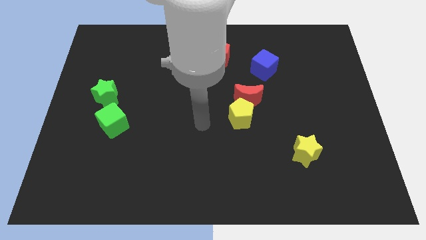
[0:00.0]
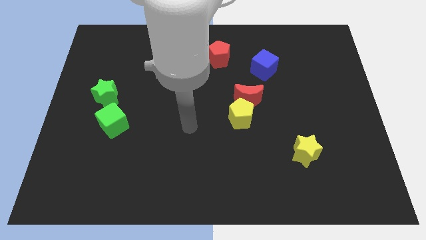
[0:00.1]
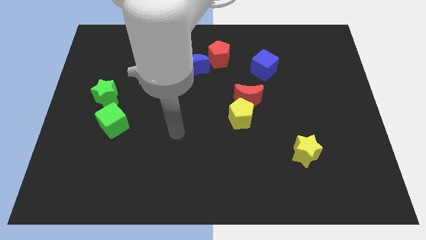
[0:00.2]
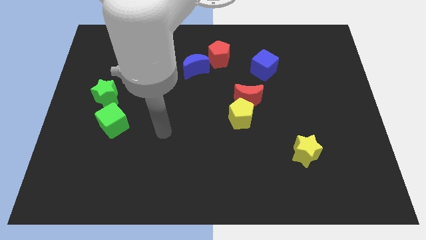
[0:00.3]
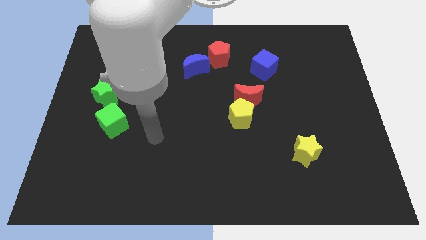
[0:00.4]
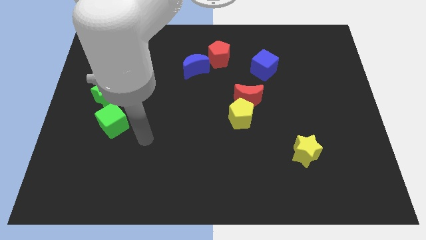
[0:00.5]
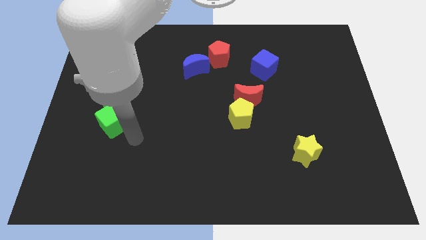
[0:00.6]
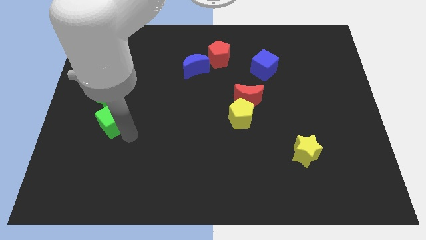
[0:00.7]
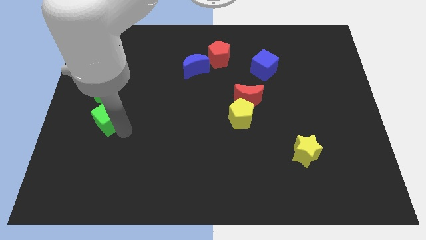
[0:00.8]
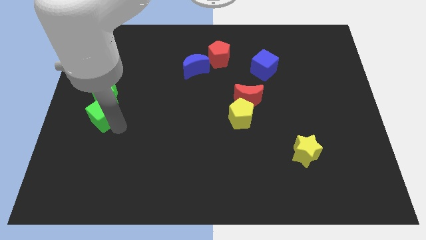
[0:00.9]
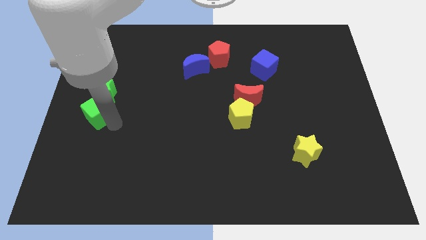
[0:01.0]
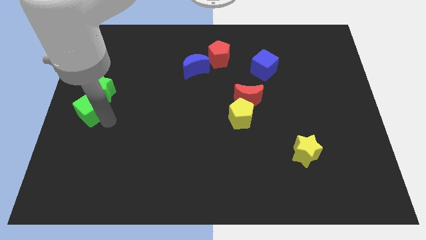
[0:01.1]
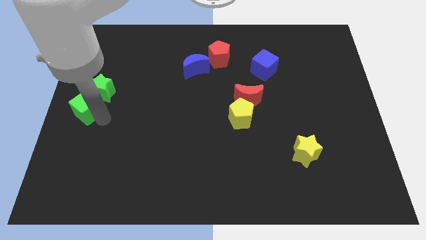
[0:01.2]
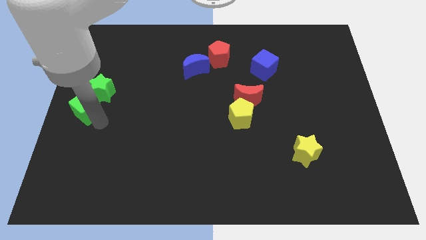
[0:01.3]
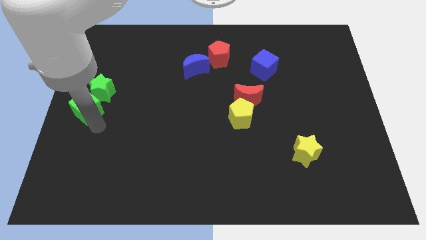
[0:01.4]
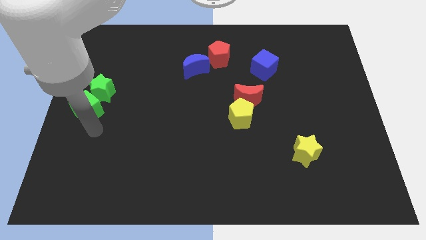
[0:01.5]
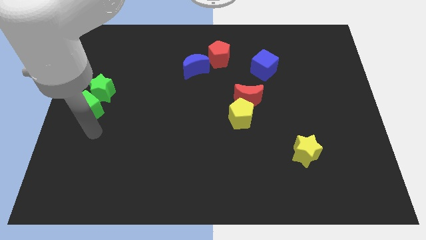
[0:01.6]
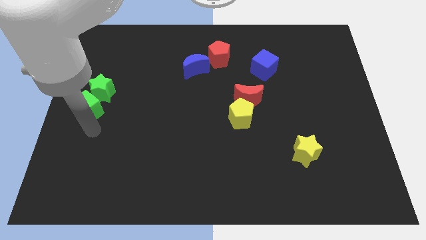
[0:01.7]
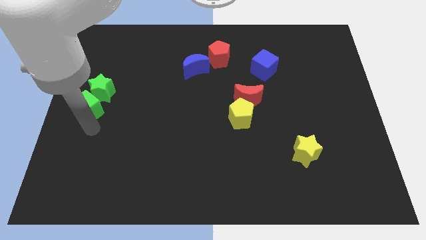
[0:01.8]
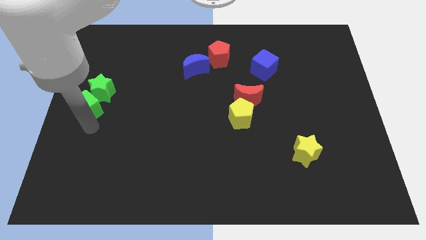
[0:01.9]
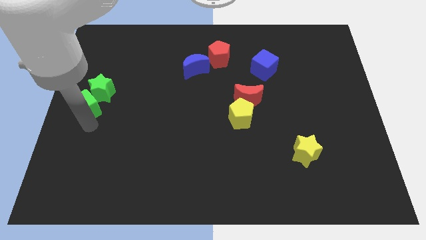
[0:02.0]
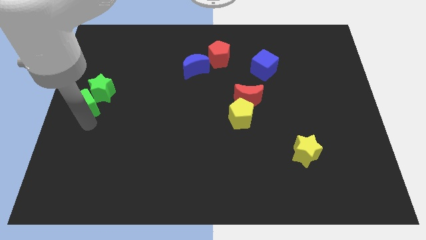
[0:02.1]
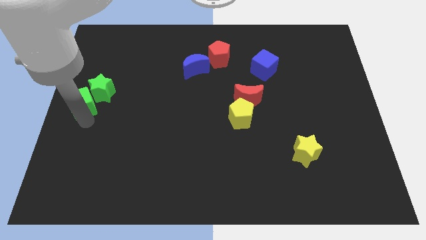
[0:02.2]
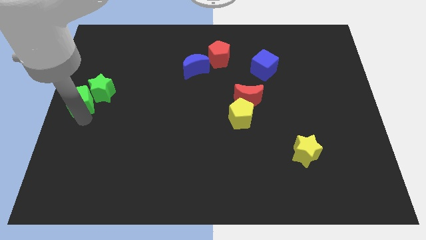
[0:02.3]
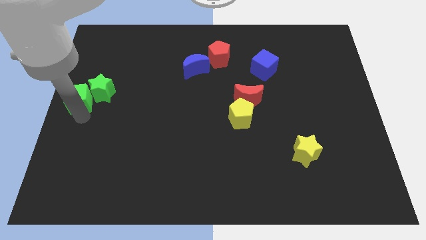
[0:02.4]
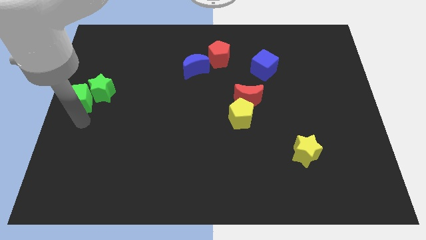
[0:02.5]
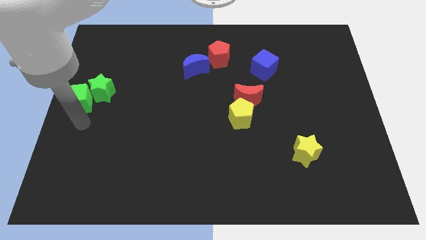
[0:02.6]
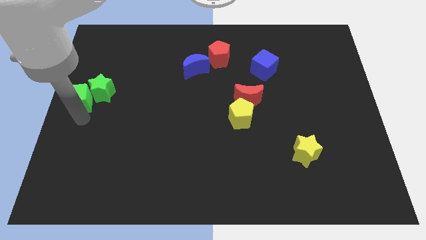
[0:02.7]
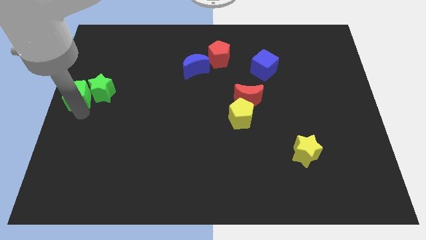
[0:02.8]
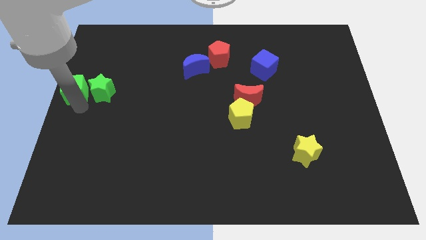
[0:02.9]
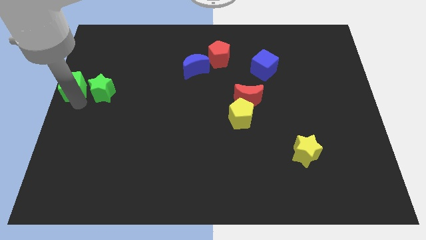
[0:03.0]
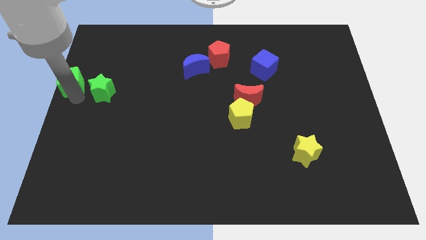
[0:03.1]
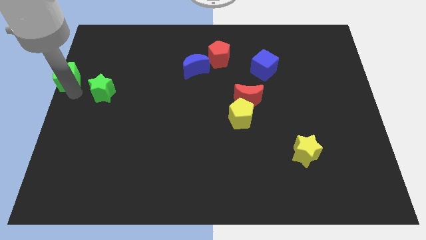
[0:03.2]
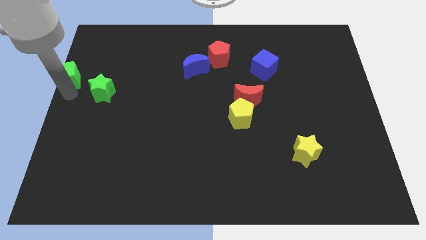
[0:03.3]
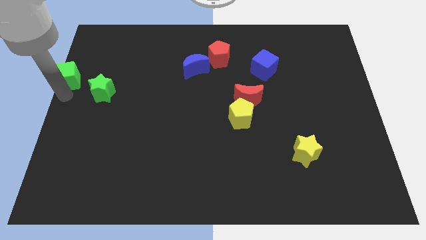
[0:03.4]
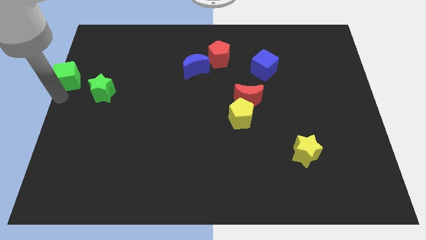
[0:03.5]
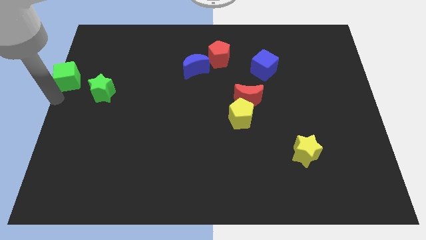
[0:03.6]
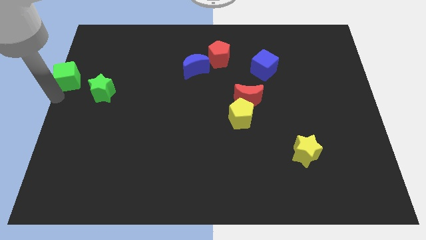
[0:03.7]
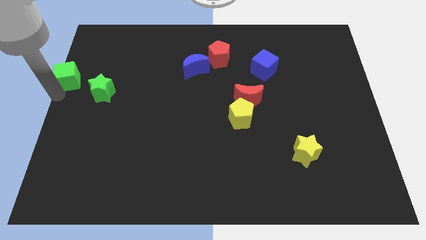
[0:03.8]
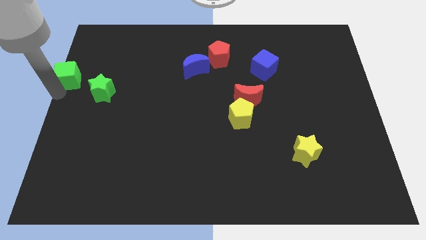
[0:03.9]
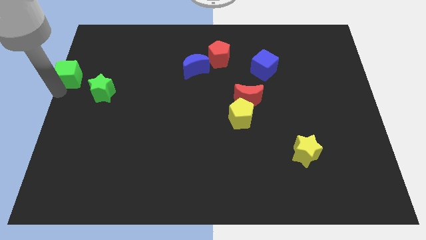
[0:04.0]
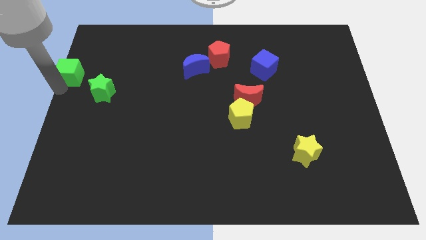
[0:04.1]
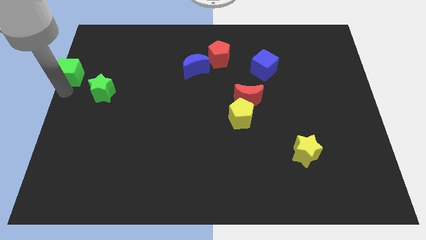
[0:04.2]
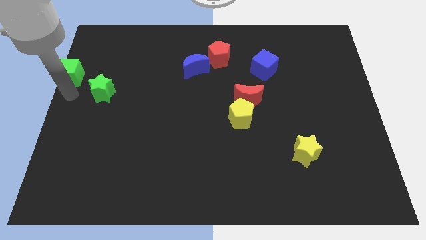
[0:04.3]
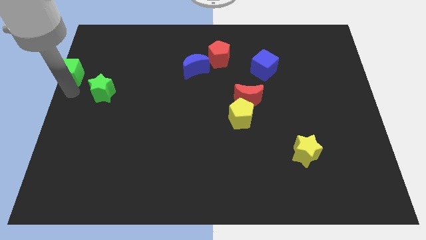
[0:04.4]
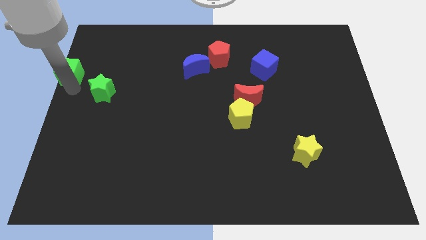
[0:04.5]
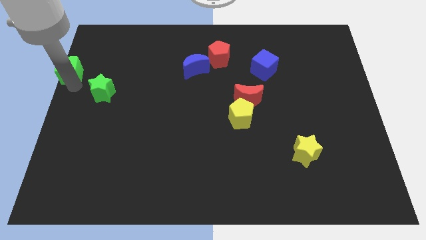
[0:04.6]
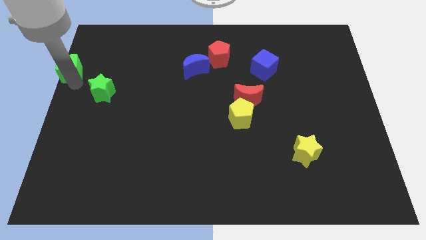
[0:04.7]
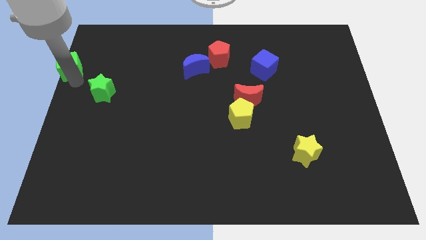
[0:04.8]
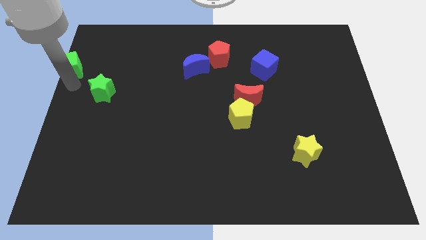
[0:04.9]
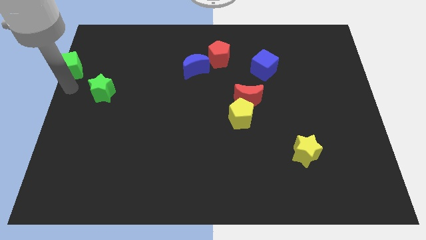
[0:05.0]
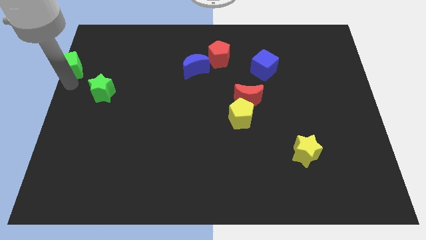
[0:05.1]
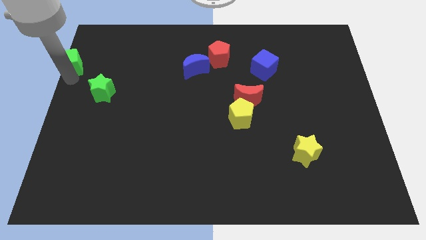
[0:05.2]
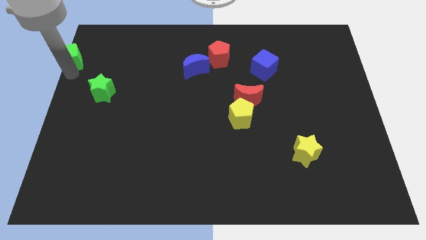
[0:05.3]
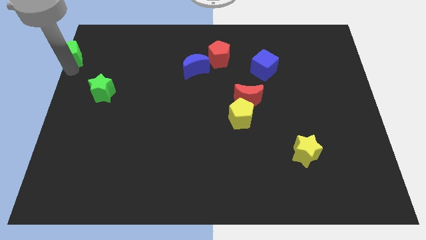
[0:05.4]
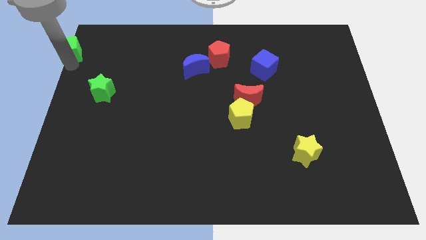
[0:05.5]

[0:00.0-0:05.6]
push the green cube to the top left

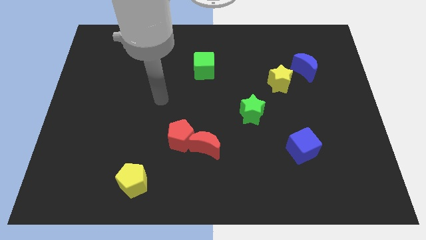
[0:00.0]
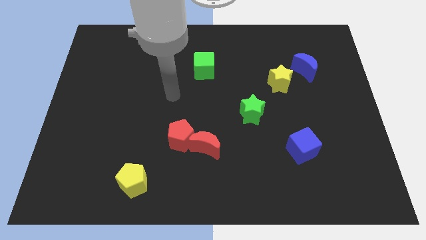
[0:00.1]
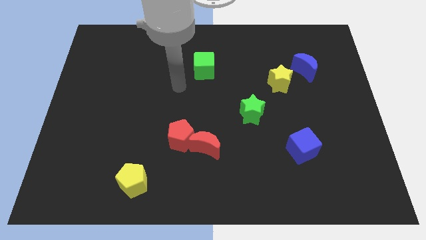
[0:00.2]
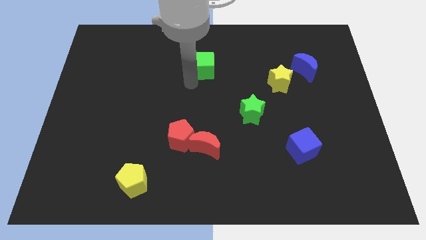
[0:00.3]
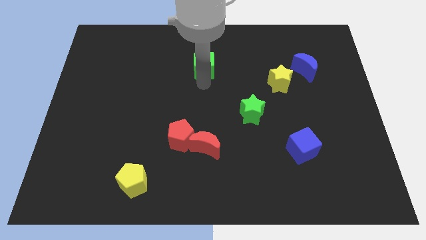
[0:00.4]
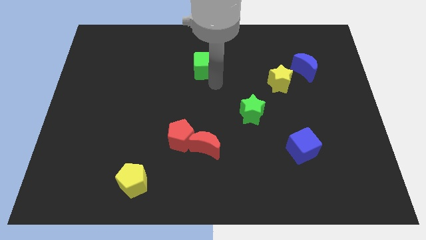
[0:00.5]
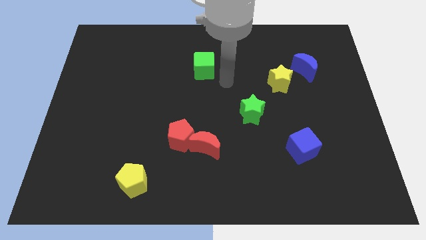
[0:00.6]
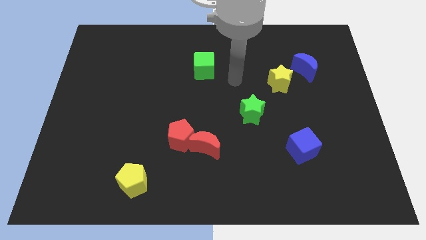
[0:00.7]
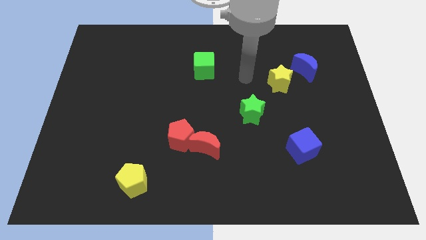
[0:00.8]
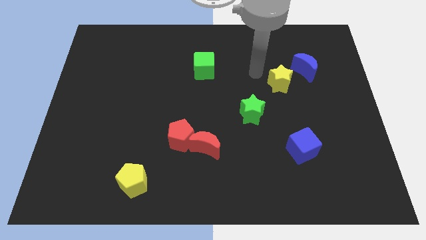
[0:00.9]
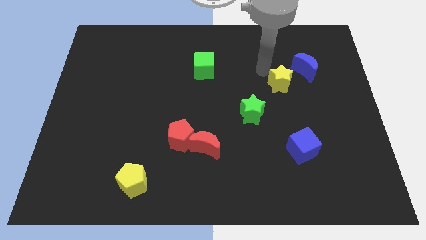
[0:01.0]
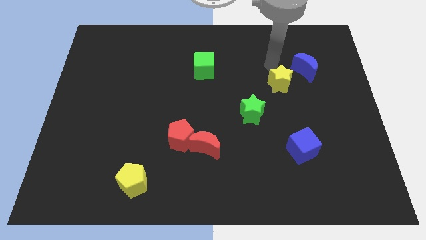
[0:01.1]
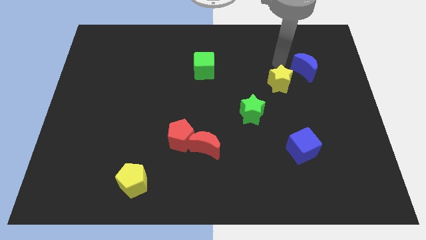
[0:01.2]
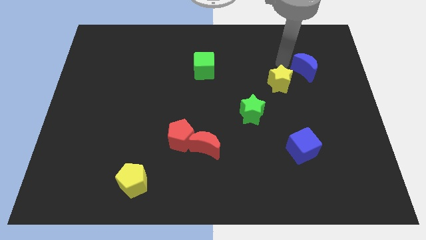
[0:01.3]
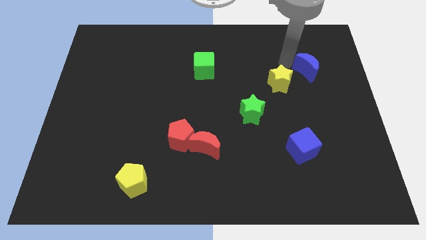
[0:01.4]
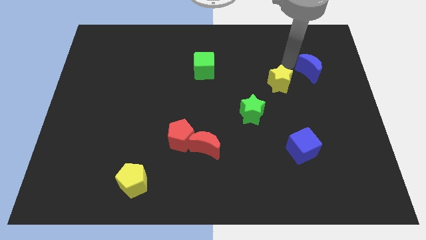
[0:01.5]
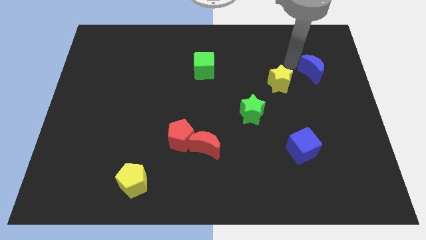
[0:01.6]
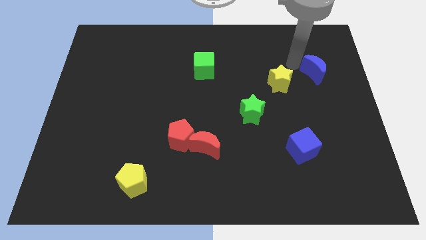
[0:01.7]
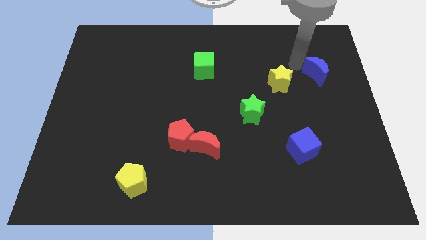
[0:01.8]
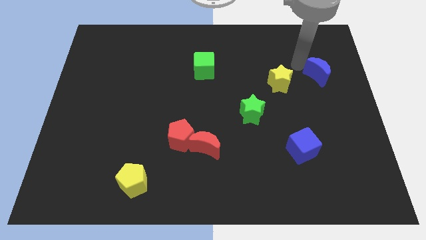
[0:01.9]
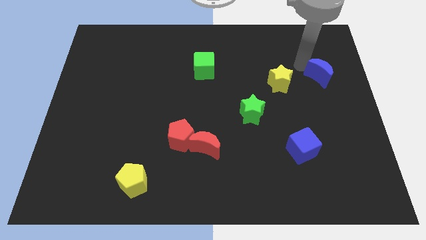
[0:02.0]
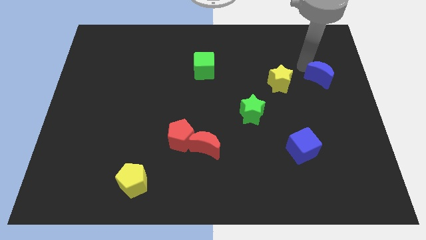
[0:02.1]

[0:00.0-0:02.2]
put the blue moon to the right side of the board
